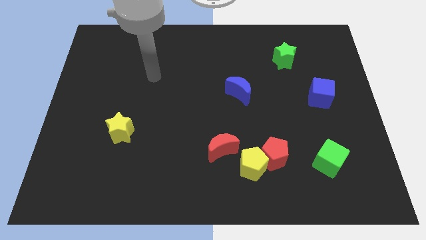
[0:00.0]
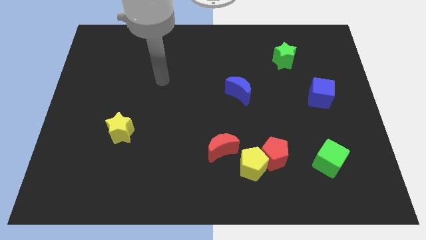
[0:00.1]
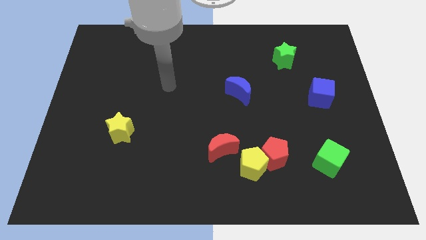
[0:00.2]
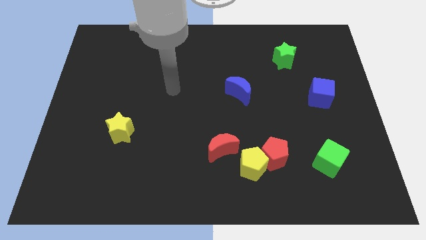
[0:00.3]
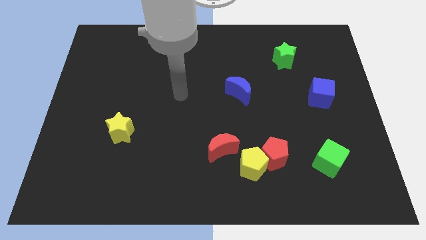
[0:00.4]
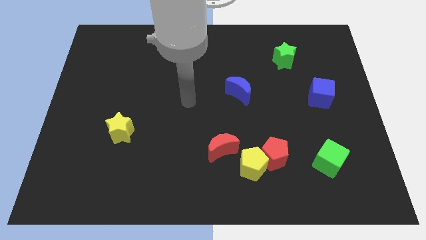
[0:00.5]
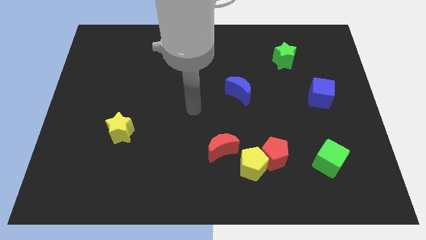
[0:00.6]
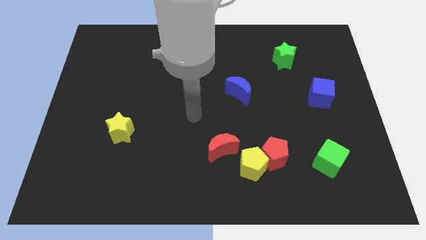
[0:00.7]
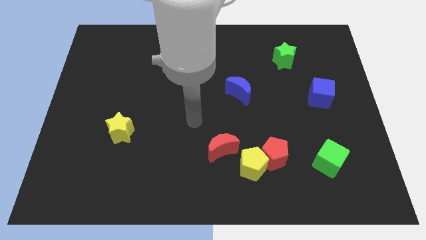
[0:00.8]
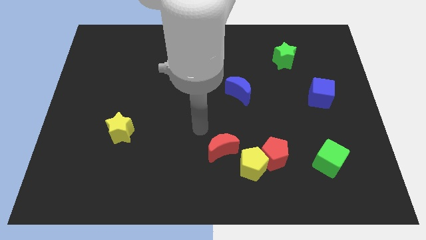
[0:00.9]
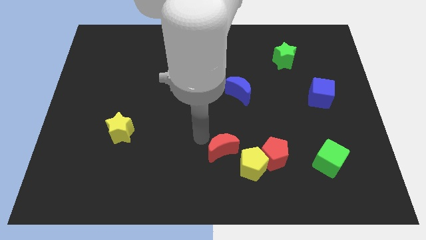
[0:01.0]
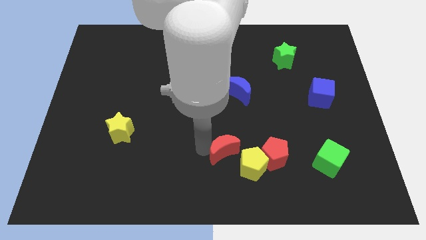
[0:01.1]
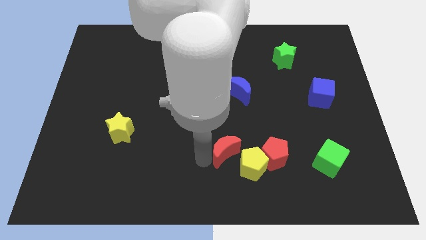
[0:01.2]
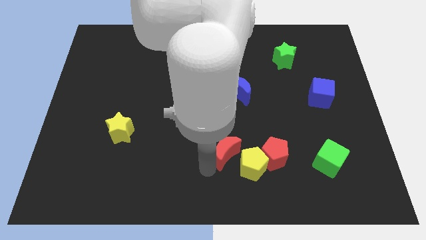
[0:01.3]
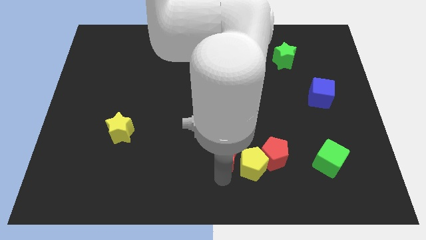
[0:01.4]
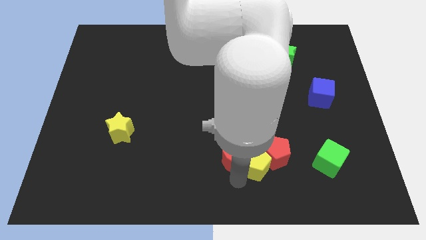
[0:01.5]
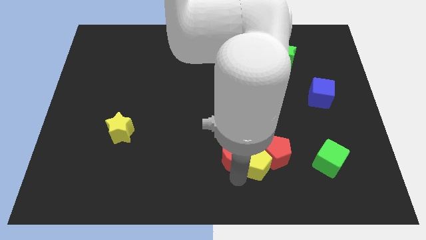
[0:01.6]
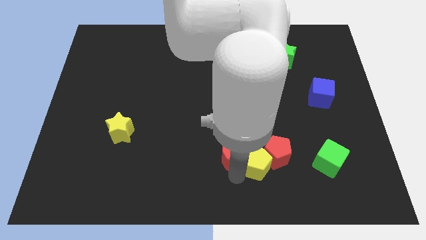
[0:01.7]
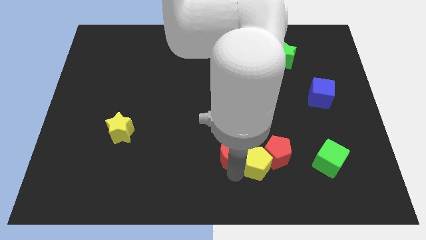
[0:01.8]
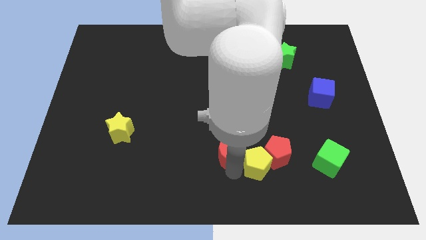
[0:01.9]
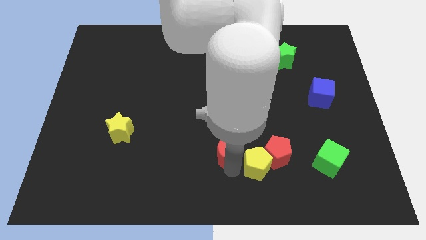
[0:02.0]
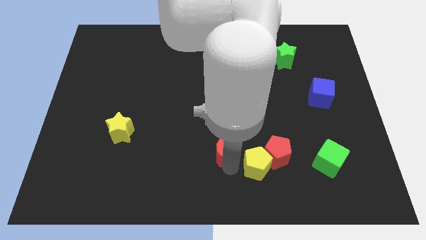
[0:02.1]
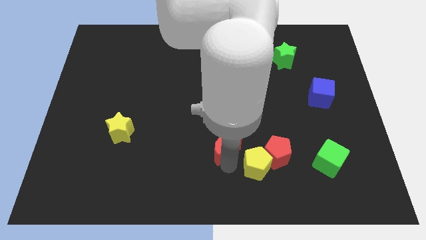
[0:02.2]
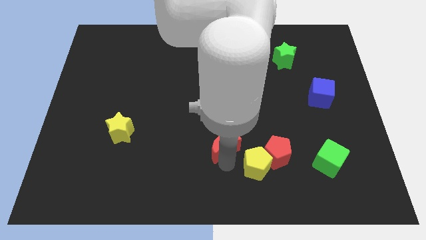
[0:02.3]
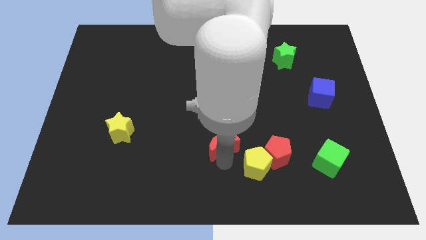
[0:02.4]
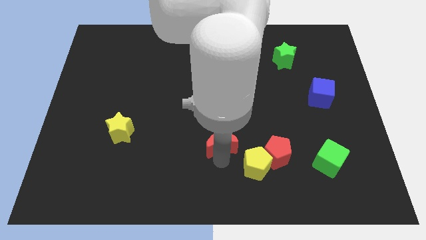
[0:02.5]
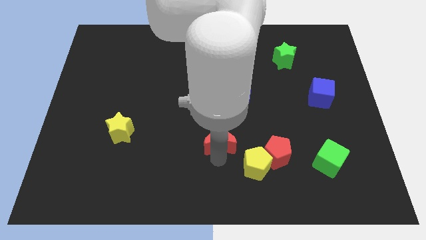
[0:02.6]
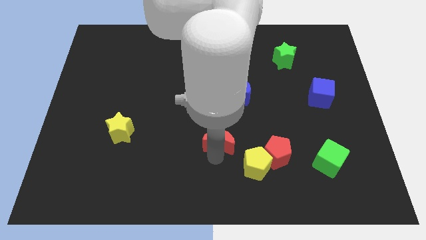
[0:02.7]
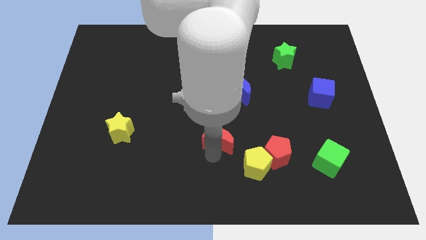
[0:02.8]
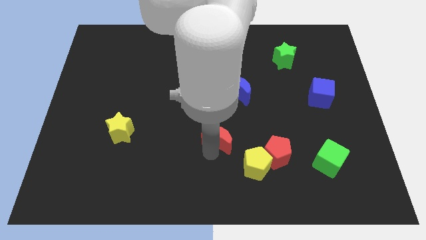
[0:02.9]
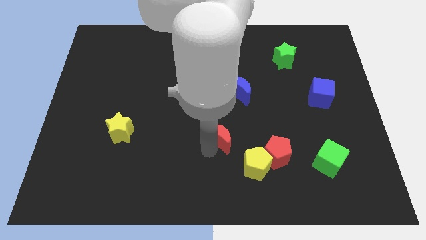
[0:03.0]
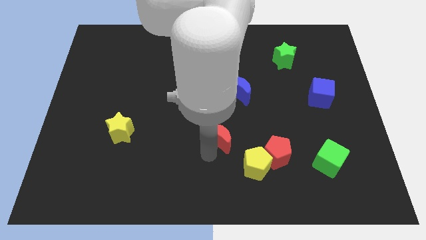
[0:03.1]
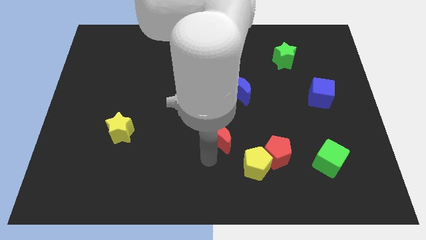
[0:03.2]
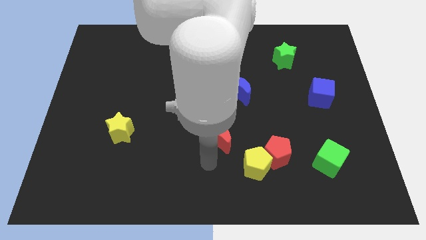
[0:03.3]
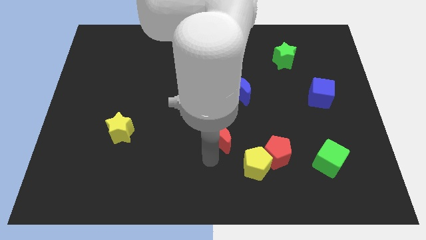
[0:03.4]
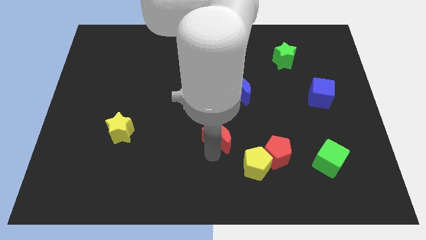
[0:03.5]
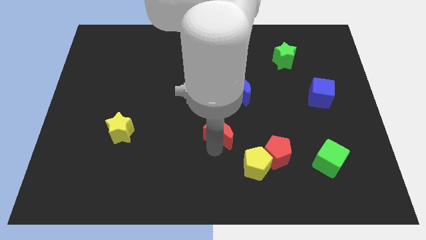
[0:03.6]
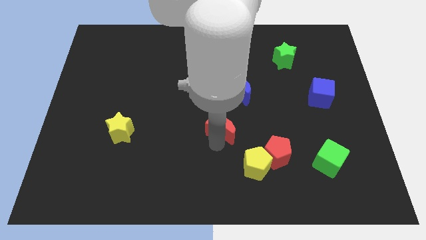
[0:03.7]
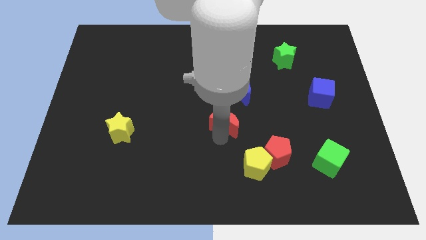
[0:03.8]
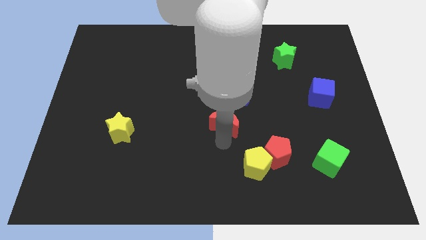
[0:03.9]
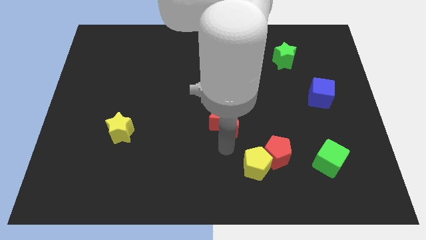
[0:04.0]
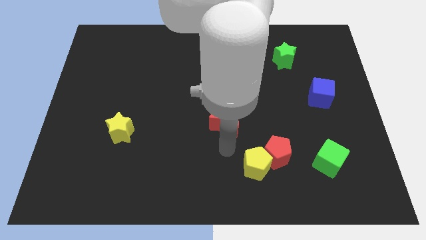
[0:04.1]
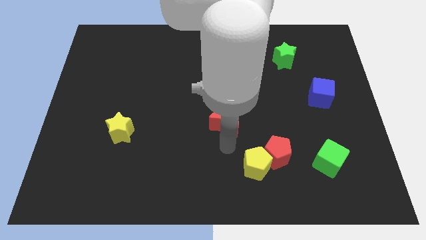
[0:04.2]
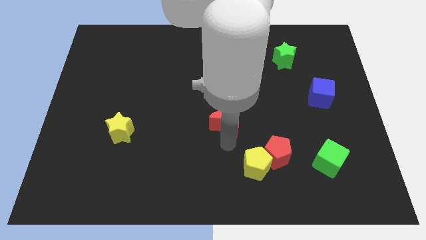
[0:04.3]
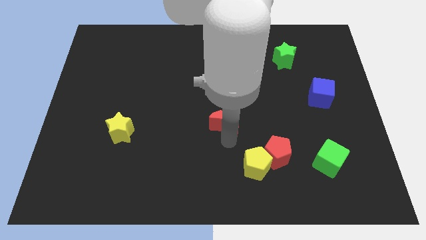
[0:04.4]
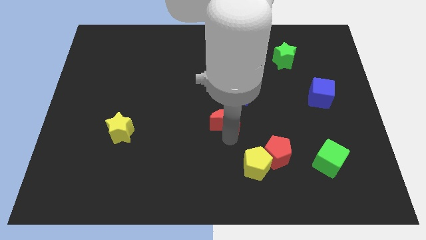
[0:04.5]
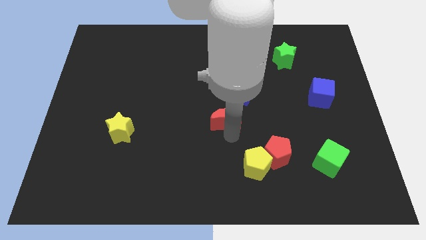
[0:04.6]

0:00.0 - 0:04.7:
move the red moon upwards a little

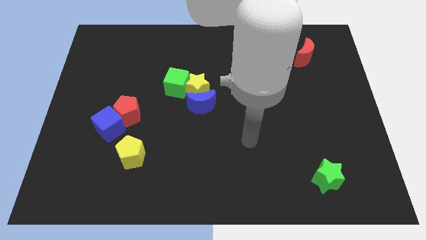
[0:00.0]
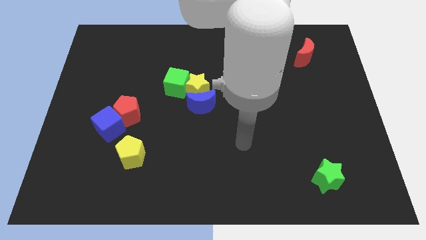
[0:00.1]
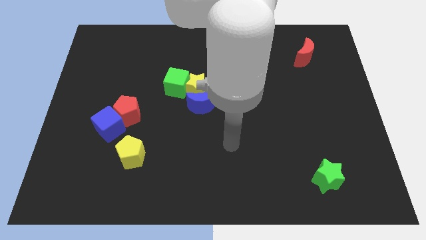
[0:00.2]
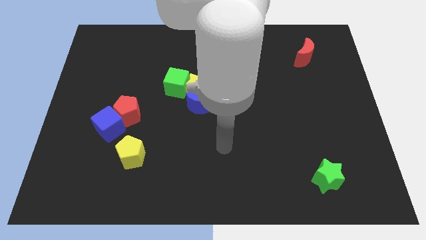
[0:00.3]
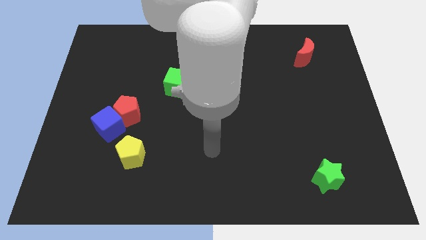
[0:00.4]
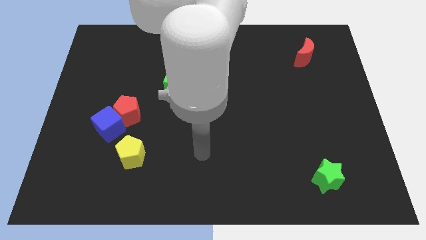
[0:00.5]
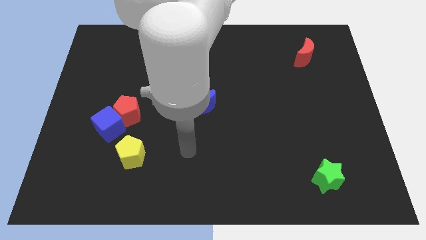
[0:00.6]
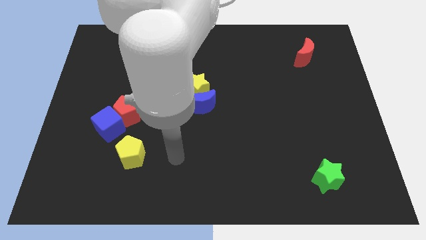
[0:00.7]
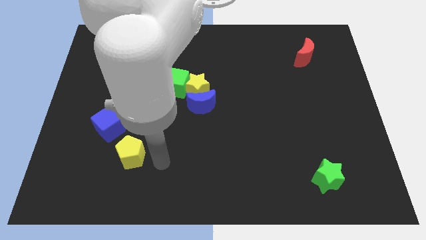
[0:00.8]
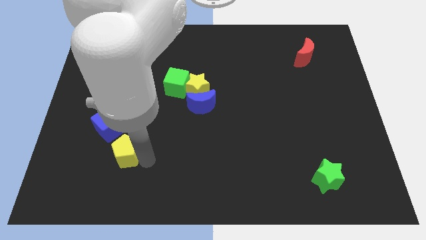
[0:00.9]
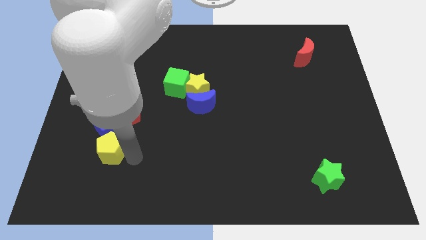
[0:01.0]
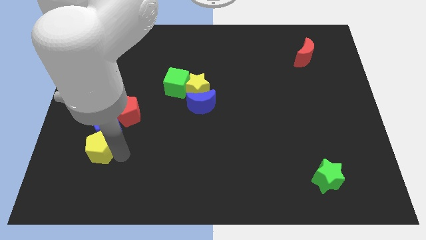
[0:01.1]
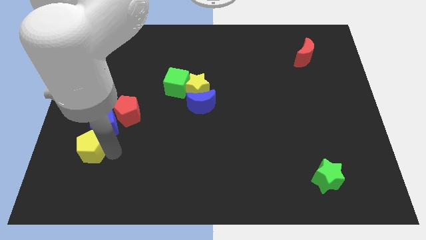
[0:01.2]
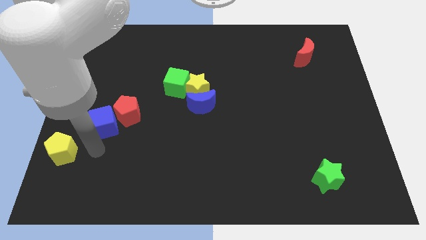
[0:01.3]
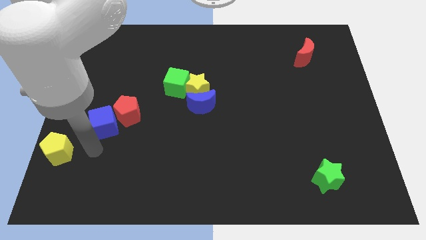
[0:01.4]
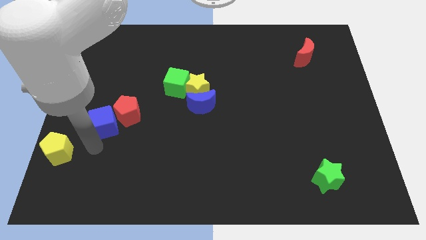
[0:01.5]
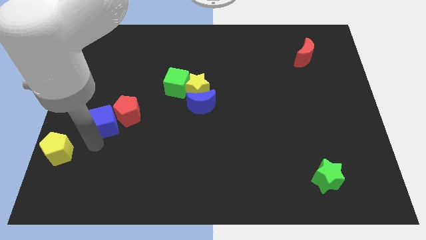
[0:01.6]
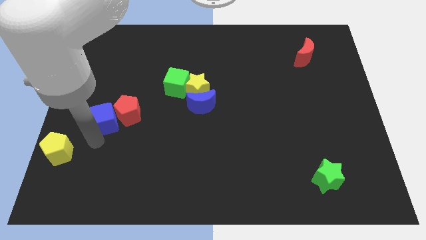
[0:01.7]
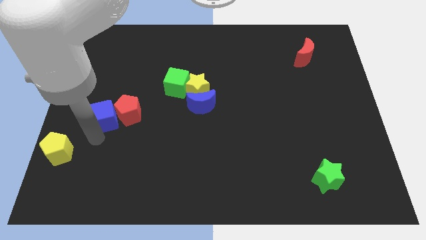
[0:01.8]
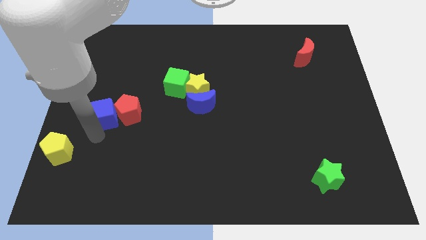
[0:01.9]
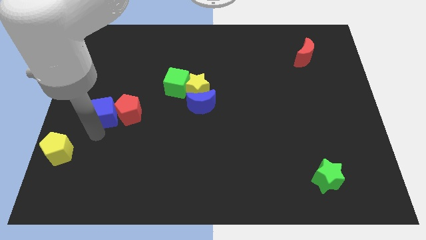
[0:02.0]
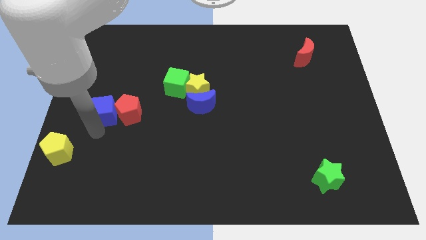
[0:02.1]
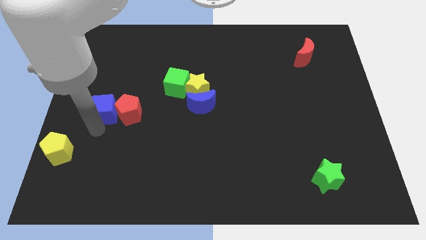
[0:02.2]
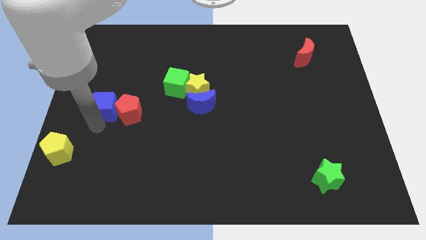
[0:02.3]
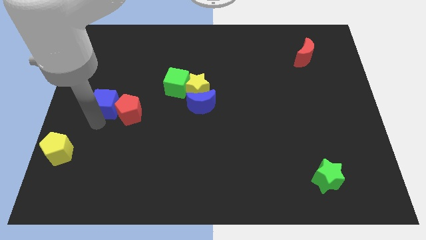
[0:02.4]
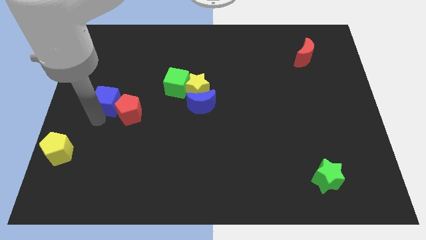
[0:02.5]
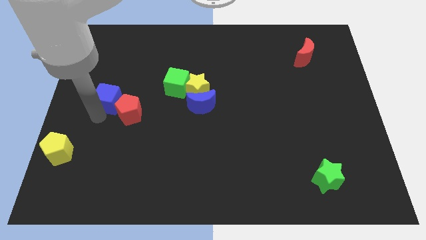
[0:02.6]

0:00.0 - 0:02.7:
move the blue cube upwards somewhat

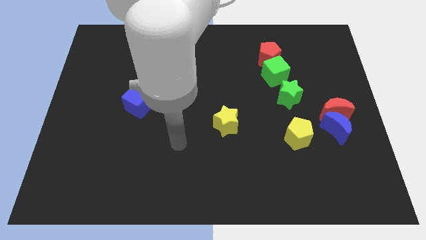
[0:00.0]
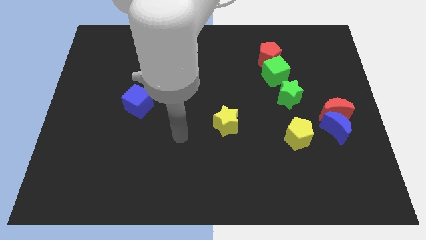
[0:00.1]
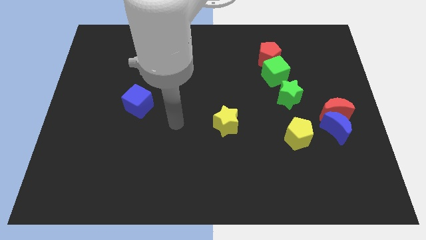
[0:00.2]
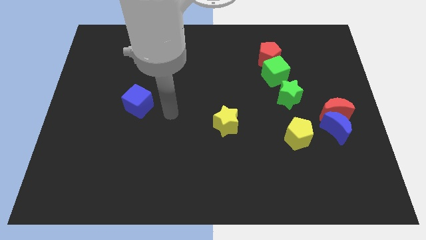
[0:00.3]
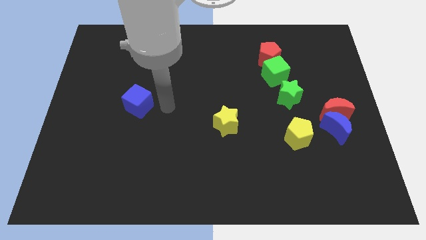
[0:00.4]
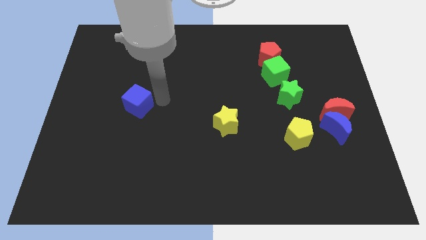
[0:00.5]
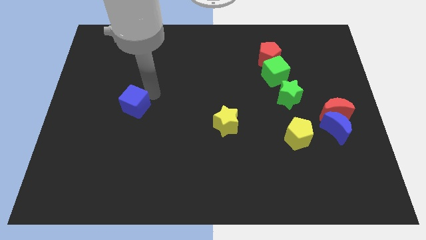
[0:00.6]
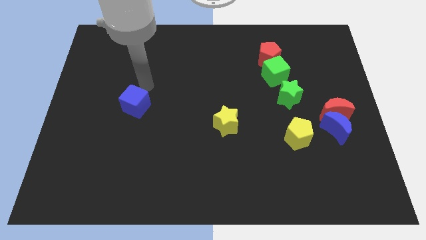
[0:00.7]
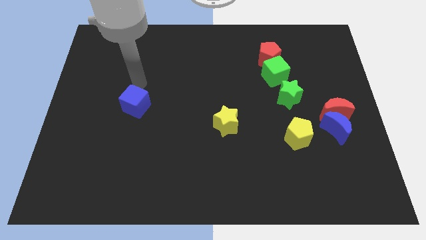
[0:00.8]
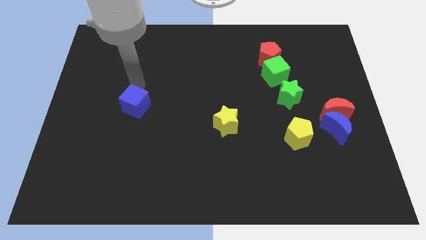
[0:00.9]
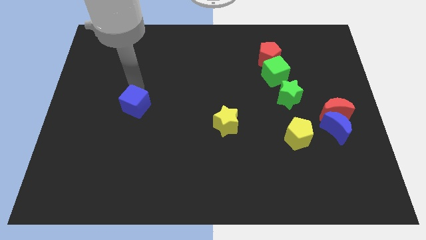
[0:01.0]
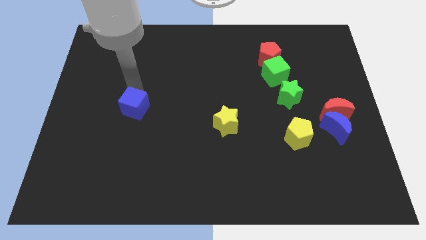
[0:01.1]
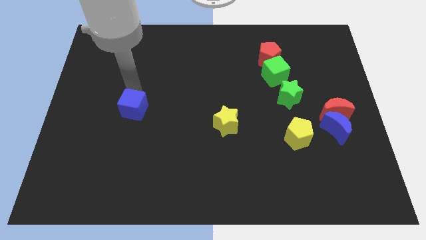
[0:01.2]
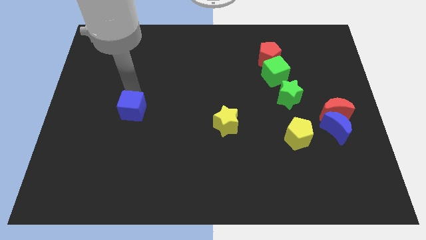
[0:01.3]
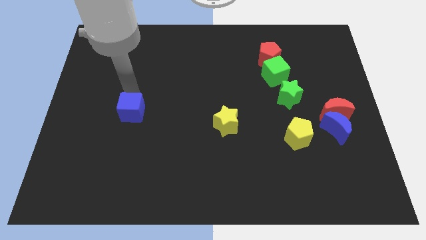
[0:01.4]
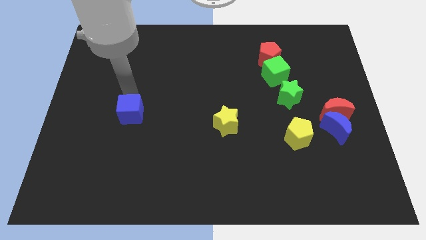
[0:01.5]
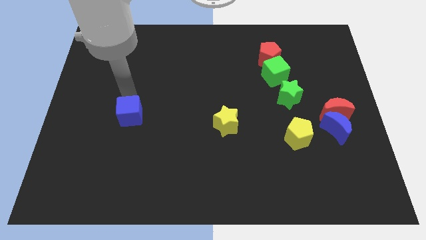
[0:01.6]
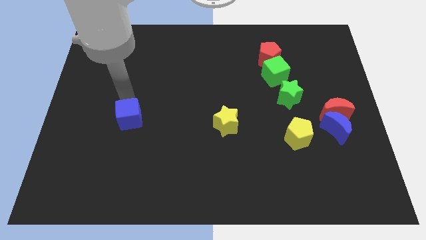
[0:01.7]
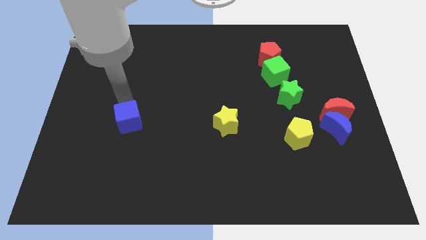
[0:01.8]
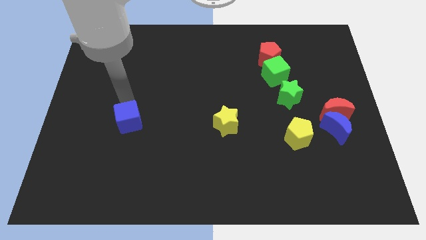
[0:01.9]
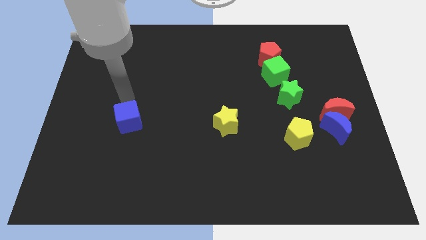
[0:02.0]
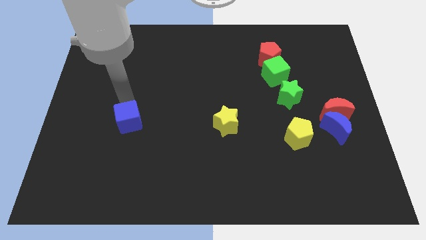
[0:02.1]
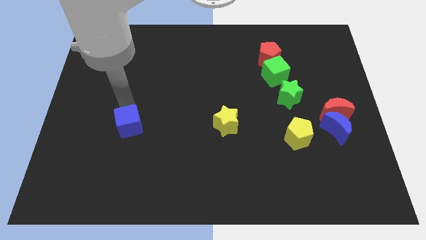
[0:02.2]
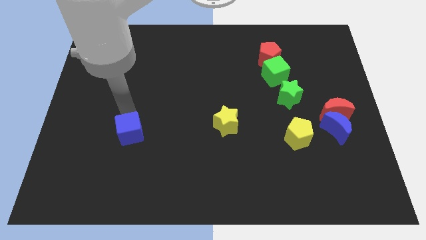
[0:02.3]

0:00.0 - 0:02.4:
slide the blue cube a little downwards
